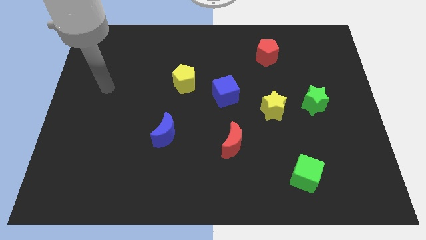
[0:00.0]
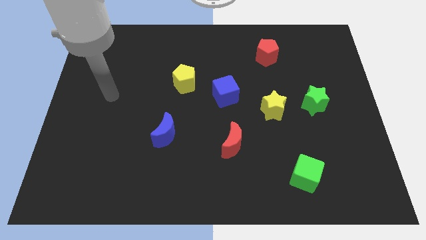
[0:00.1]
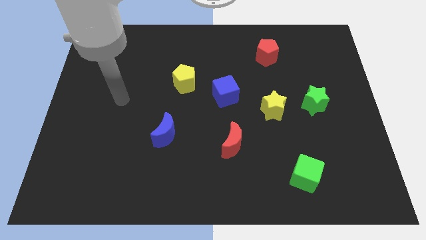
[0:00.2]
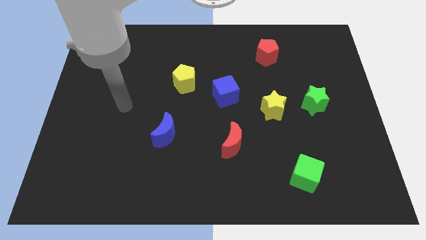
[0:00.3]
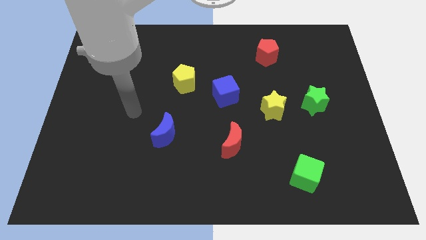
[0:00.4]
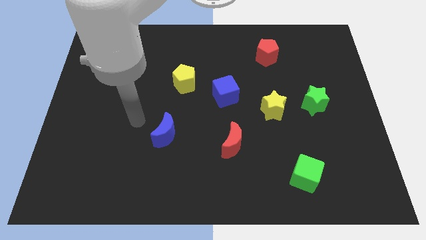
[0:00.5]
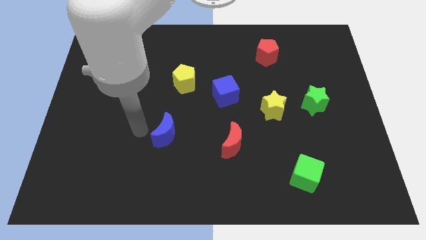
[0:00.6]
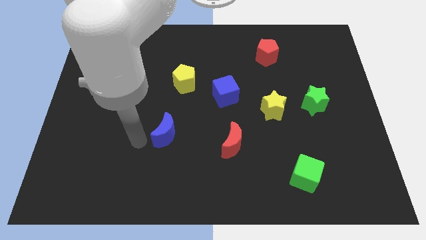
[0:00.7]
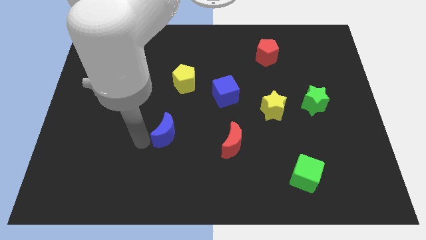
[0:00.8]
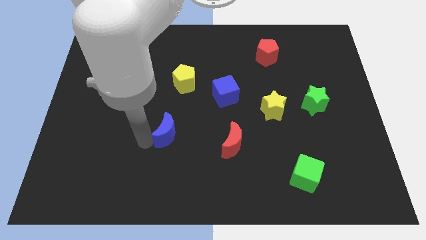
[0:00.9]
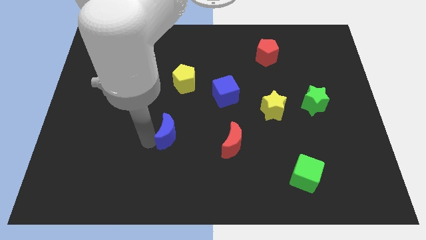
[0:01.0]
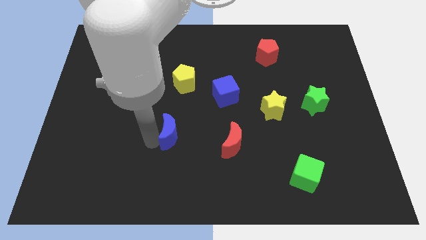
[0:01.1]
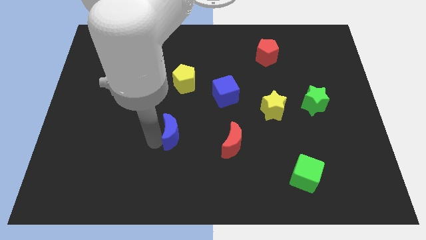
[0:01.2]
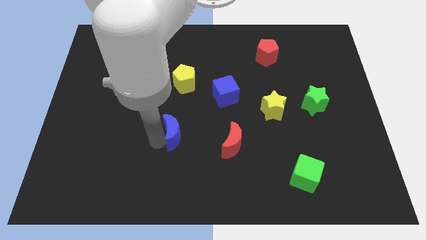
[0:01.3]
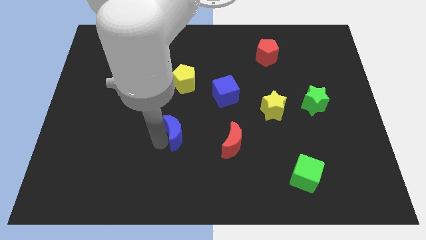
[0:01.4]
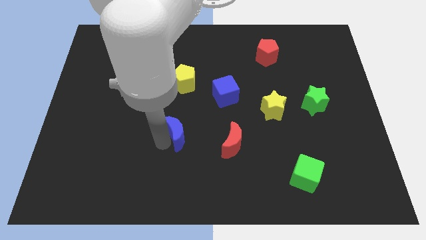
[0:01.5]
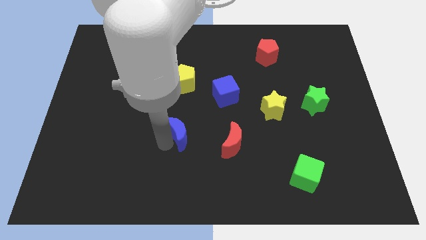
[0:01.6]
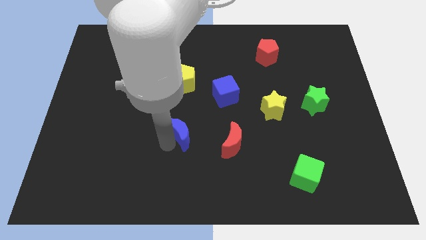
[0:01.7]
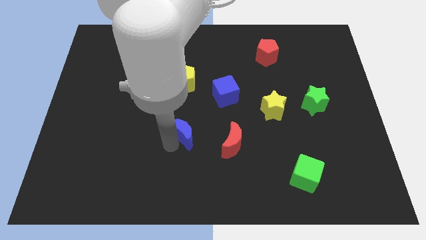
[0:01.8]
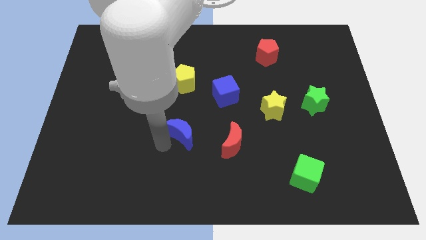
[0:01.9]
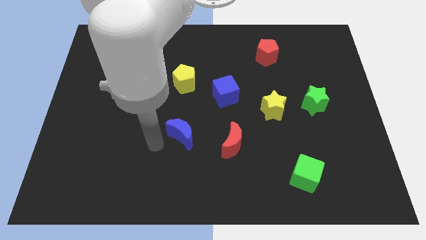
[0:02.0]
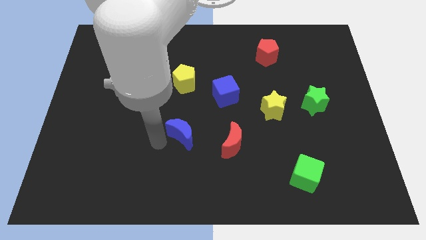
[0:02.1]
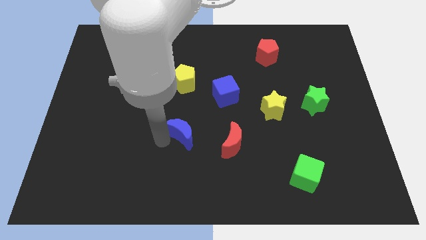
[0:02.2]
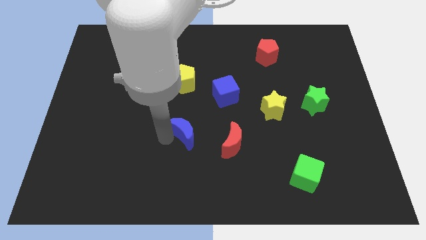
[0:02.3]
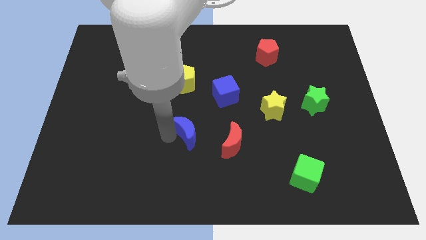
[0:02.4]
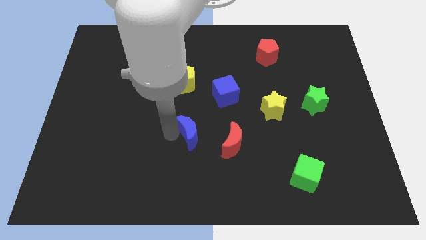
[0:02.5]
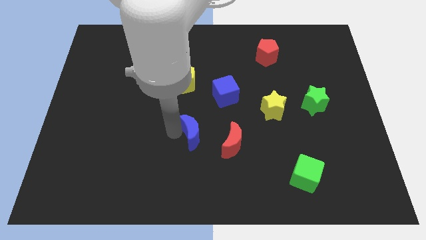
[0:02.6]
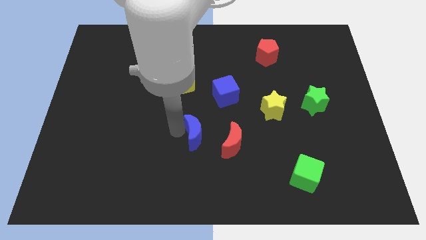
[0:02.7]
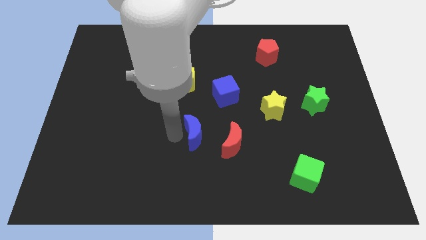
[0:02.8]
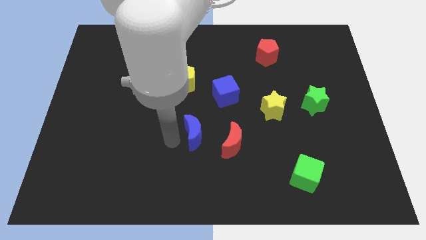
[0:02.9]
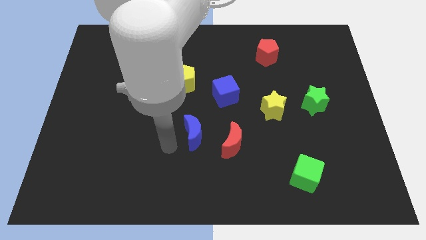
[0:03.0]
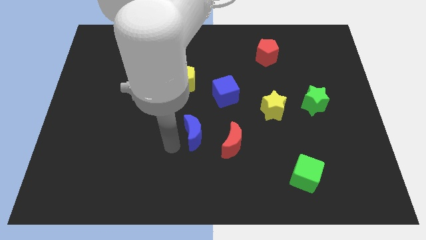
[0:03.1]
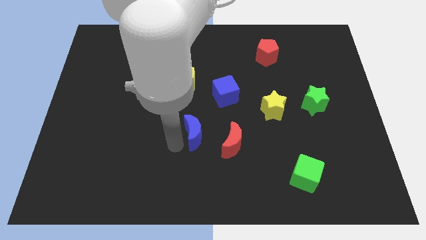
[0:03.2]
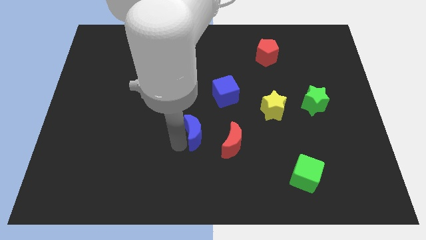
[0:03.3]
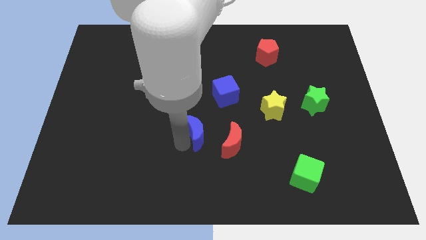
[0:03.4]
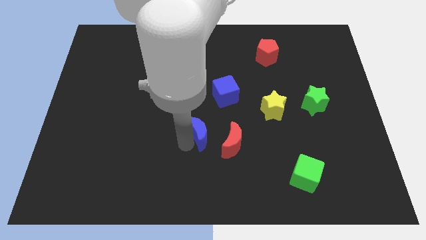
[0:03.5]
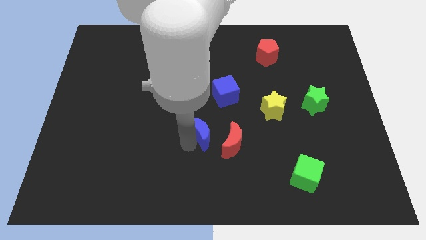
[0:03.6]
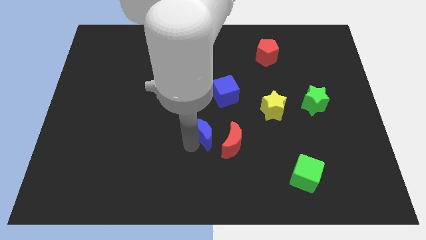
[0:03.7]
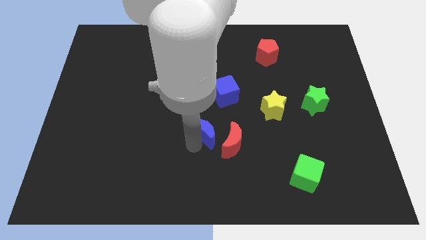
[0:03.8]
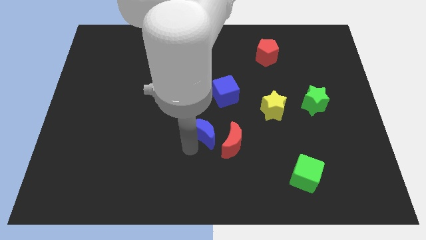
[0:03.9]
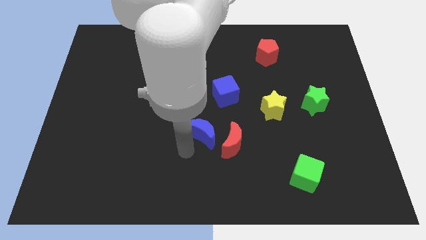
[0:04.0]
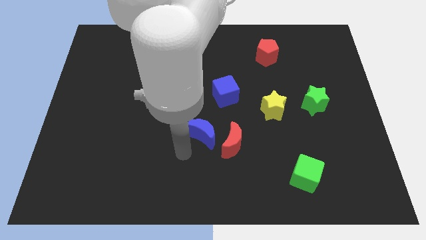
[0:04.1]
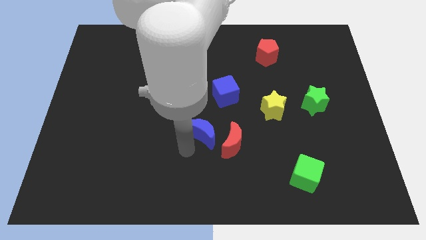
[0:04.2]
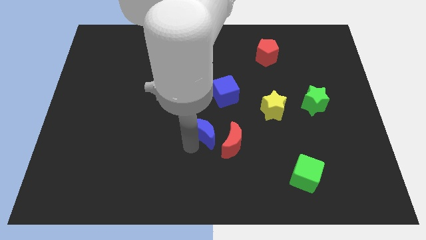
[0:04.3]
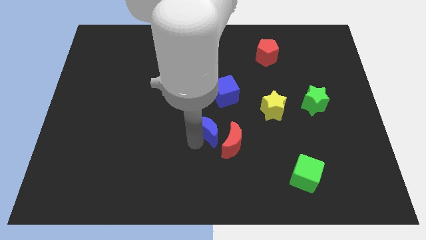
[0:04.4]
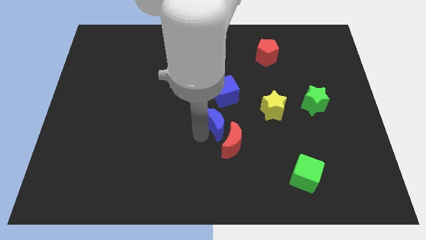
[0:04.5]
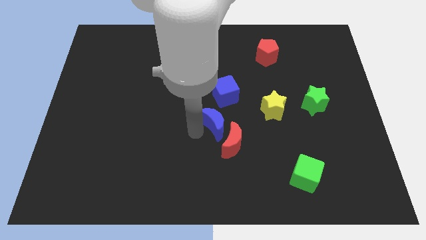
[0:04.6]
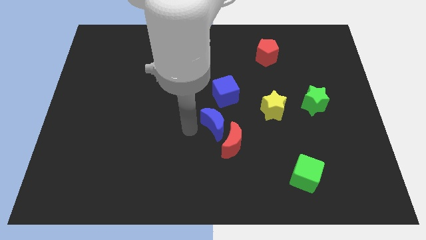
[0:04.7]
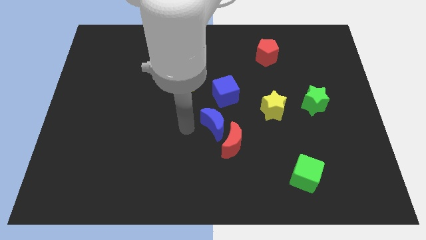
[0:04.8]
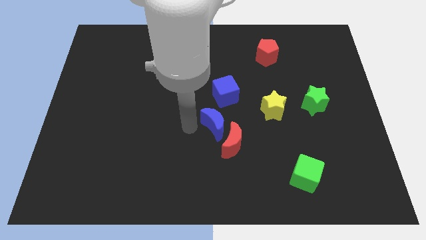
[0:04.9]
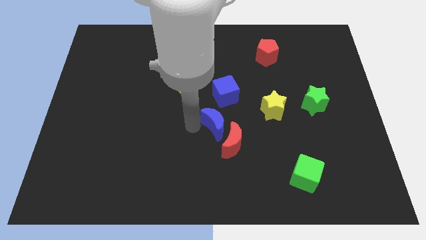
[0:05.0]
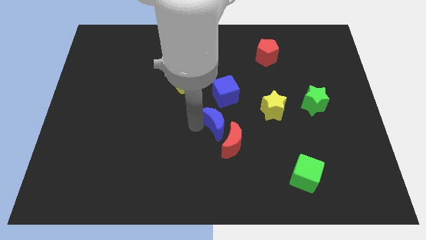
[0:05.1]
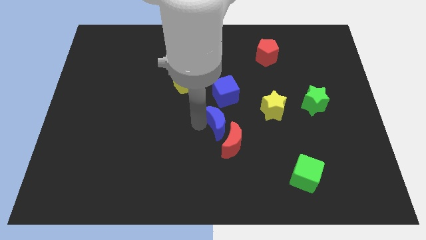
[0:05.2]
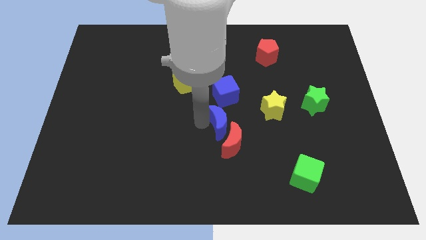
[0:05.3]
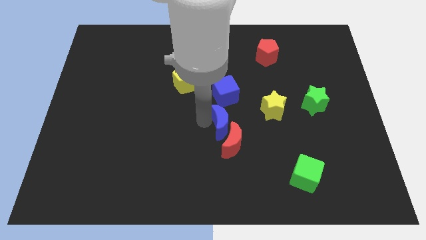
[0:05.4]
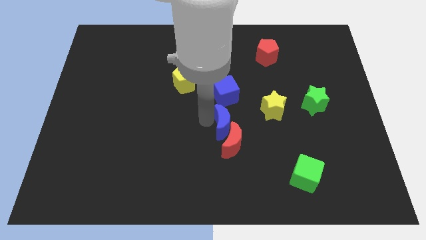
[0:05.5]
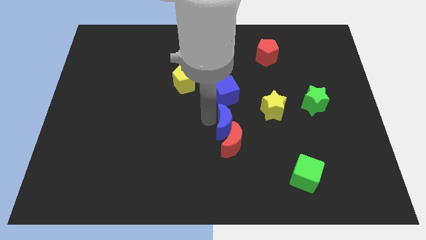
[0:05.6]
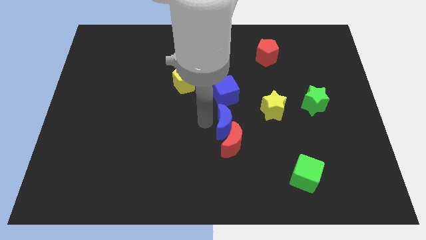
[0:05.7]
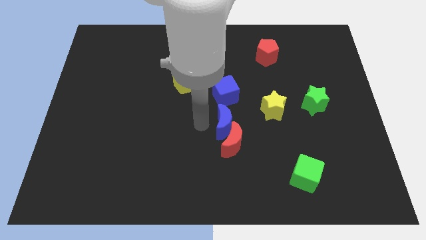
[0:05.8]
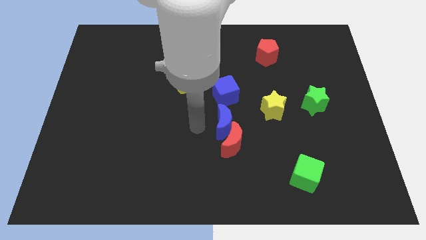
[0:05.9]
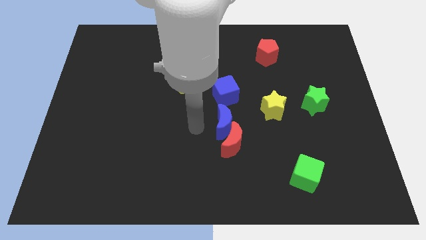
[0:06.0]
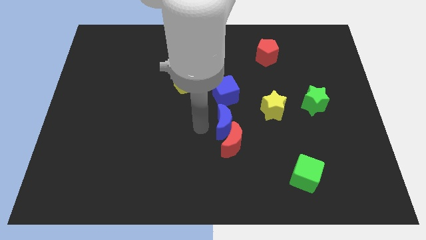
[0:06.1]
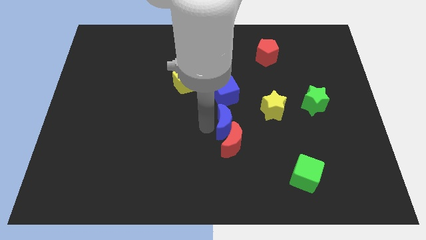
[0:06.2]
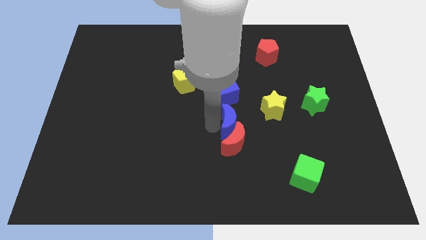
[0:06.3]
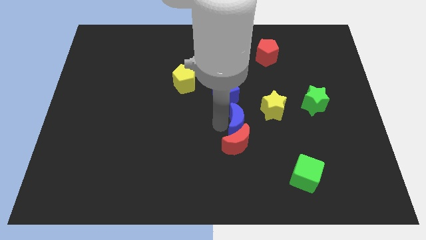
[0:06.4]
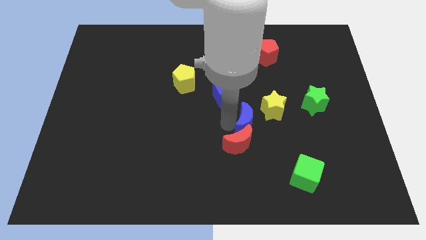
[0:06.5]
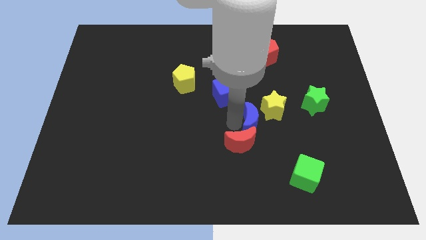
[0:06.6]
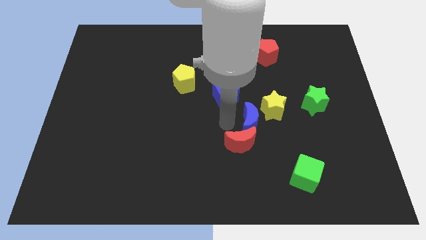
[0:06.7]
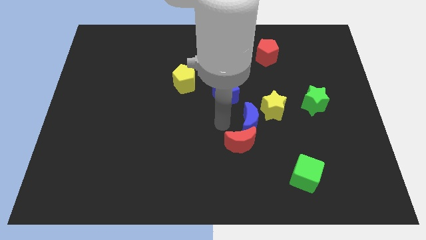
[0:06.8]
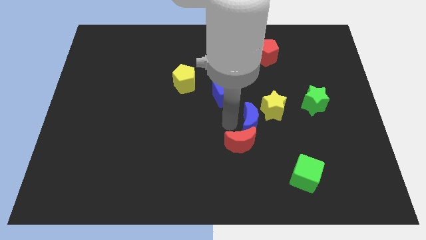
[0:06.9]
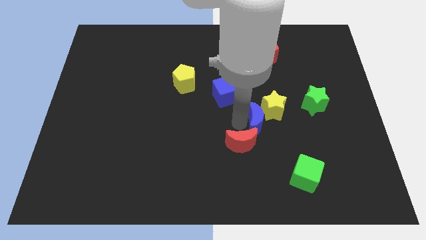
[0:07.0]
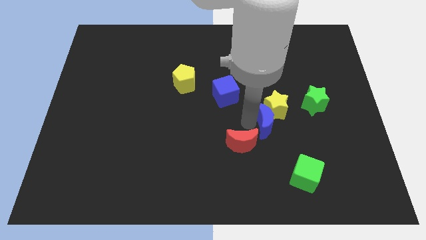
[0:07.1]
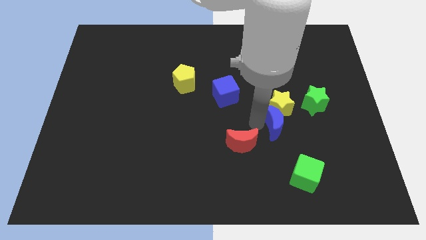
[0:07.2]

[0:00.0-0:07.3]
push the blue moon to the bottom left side of the green star
